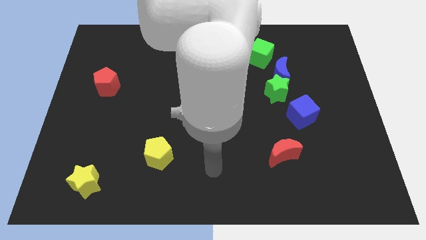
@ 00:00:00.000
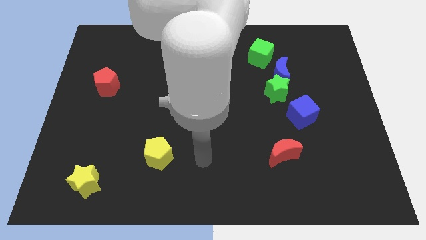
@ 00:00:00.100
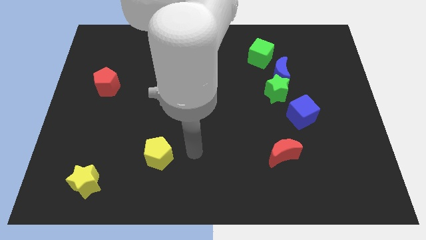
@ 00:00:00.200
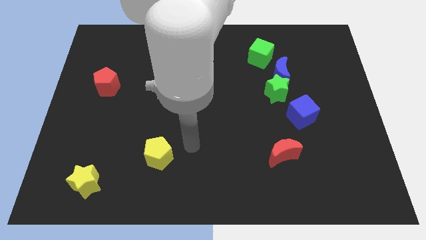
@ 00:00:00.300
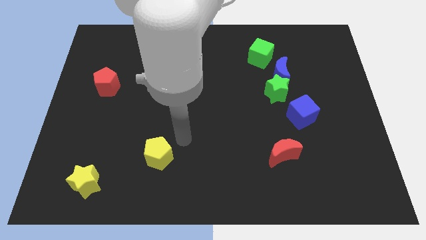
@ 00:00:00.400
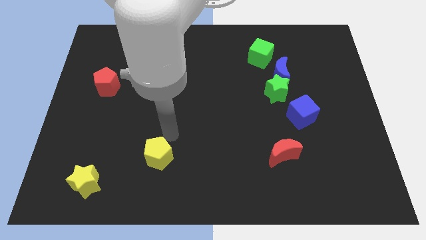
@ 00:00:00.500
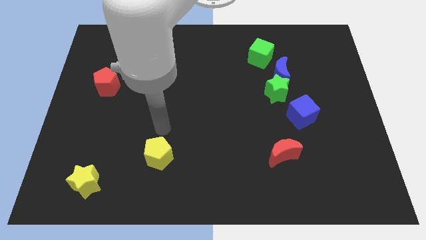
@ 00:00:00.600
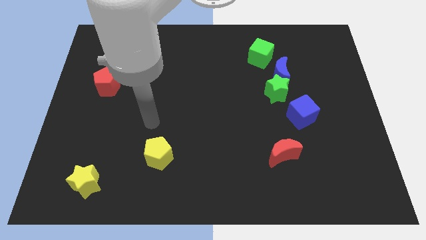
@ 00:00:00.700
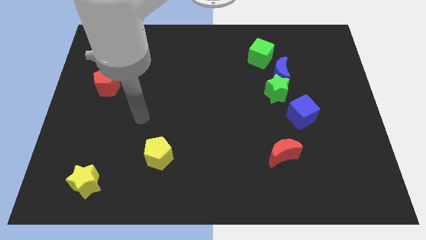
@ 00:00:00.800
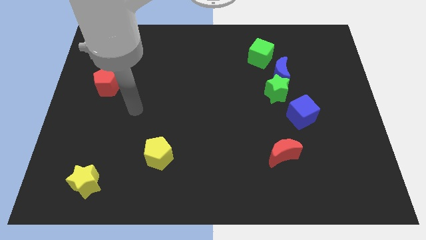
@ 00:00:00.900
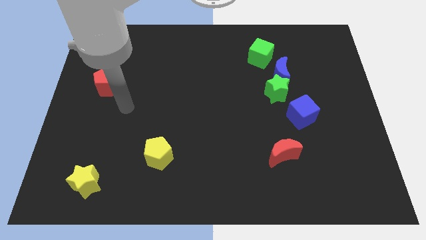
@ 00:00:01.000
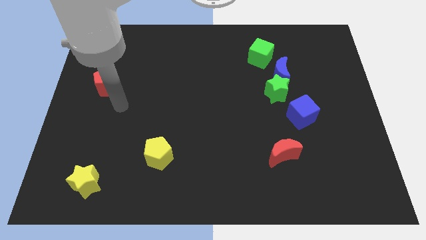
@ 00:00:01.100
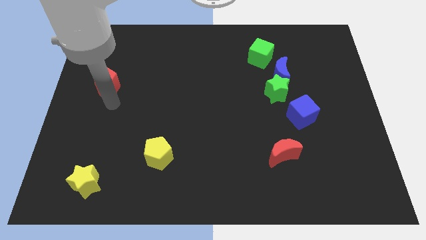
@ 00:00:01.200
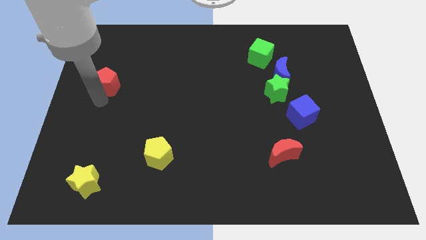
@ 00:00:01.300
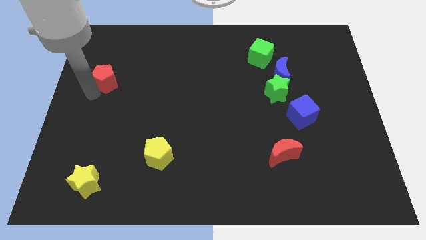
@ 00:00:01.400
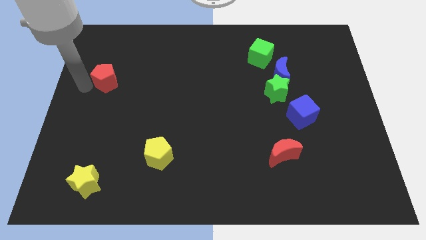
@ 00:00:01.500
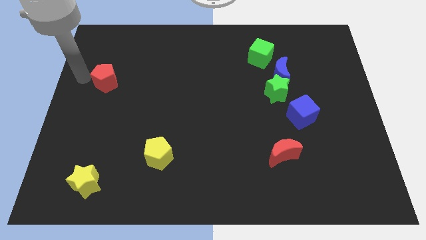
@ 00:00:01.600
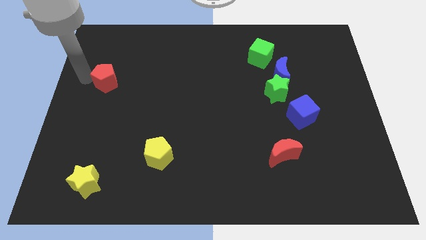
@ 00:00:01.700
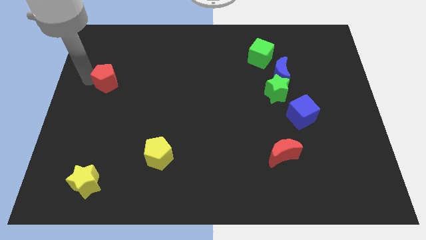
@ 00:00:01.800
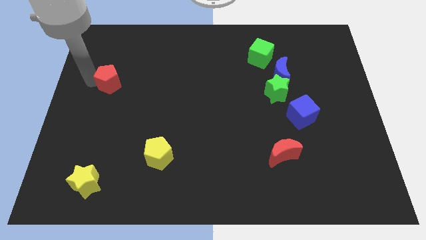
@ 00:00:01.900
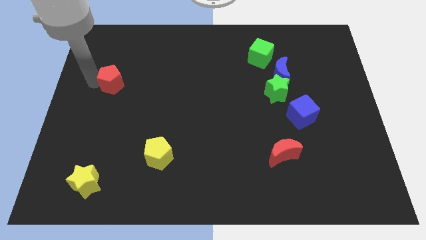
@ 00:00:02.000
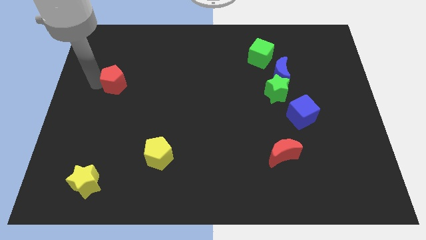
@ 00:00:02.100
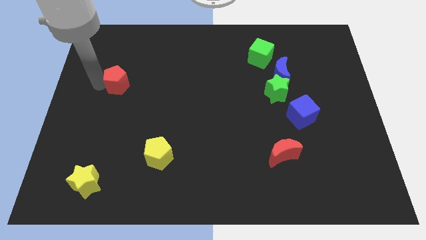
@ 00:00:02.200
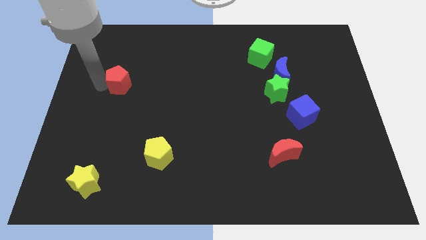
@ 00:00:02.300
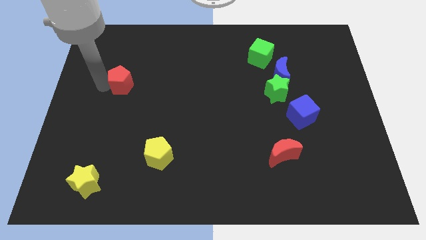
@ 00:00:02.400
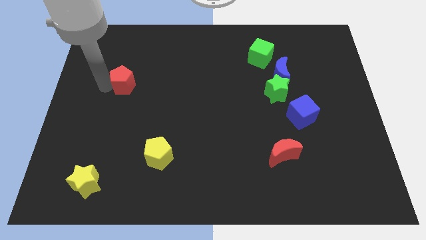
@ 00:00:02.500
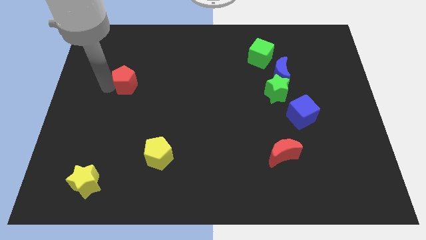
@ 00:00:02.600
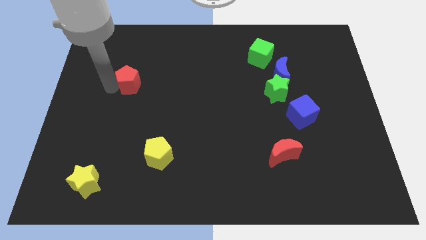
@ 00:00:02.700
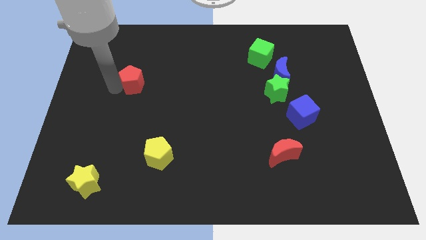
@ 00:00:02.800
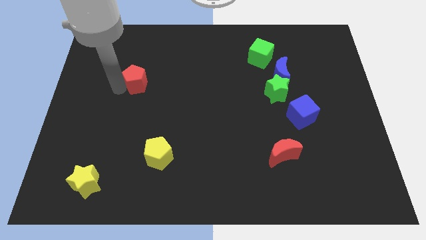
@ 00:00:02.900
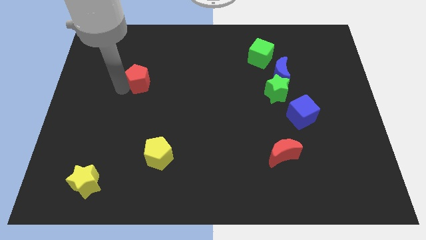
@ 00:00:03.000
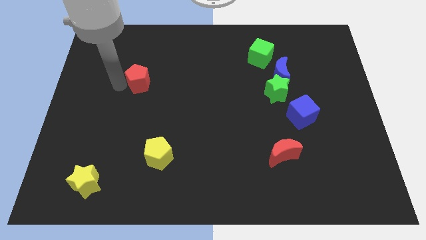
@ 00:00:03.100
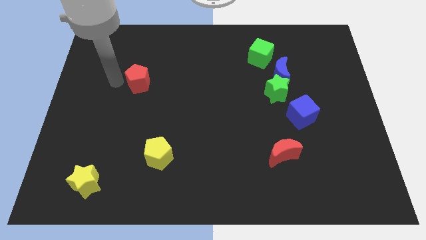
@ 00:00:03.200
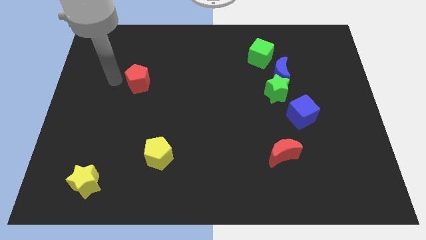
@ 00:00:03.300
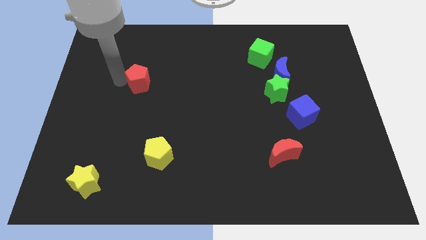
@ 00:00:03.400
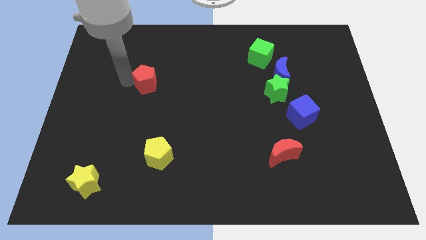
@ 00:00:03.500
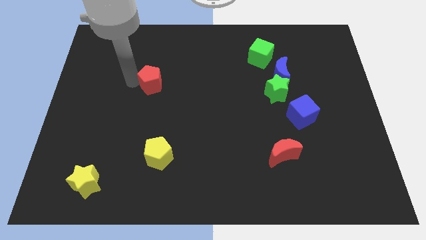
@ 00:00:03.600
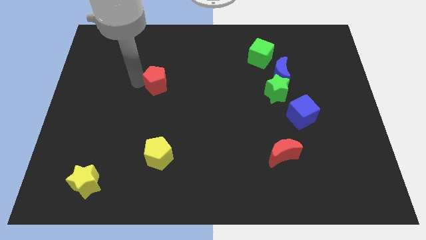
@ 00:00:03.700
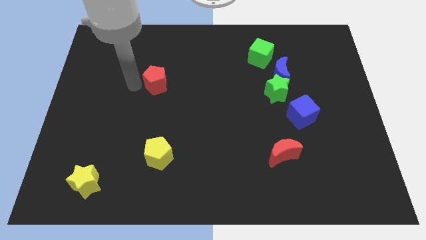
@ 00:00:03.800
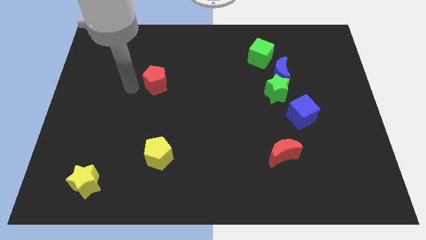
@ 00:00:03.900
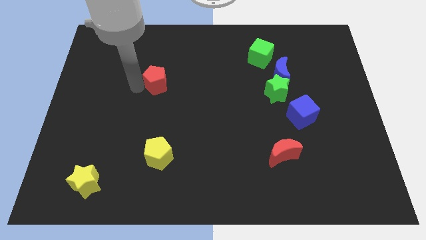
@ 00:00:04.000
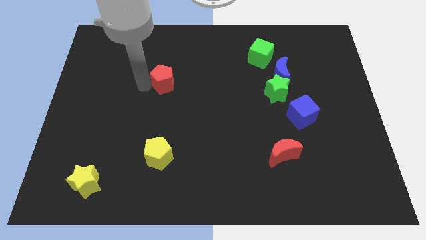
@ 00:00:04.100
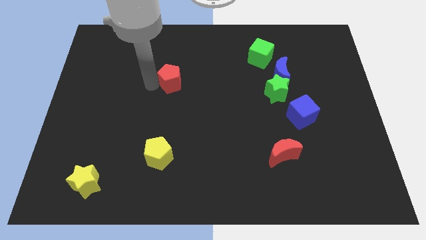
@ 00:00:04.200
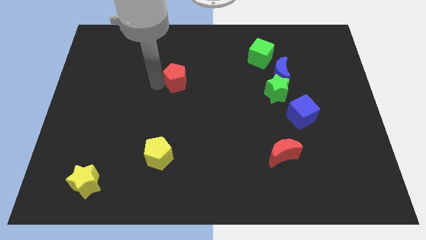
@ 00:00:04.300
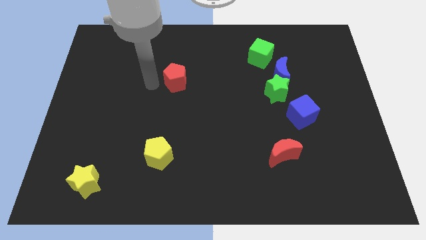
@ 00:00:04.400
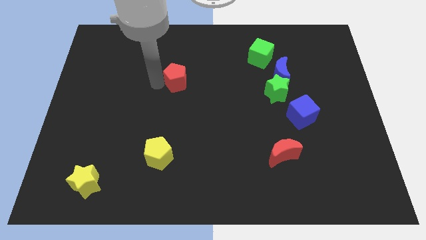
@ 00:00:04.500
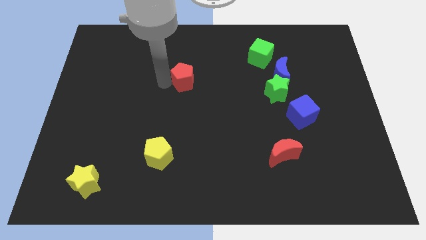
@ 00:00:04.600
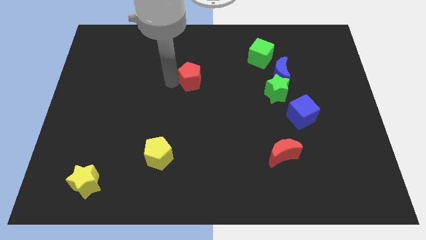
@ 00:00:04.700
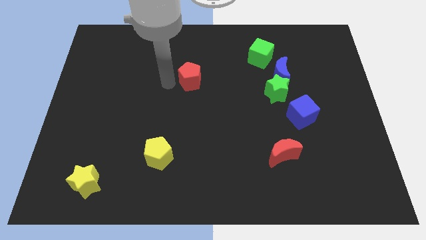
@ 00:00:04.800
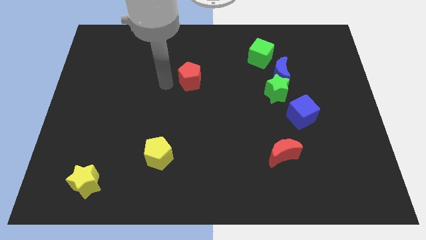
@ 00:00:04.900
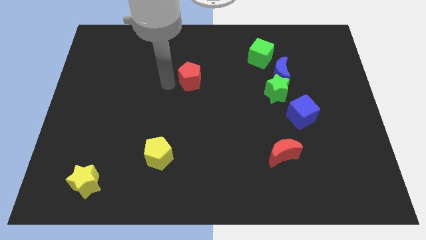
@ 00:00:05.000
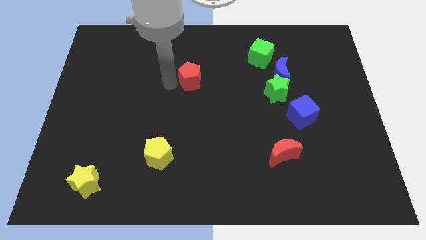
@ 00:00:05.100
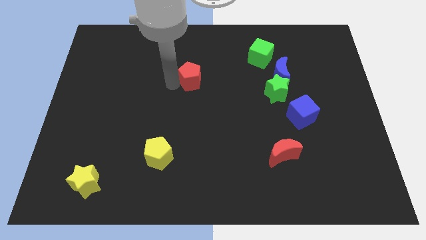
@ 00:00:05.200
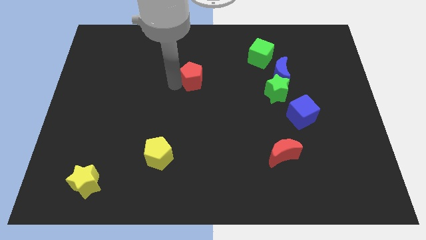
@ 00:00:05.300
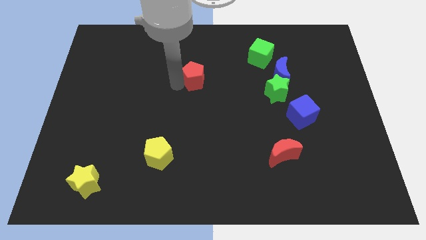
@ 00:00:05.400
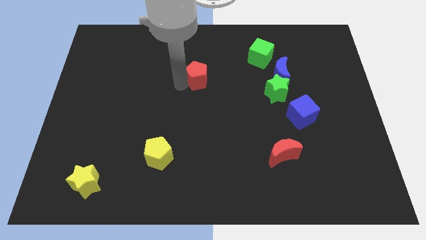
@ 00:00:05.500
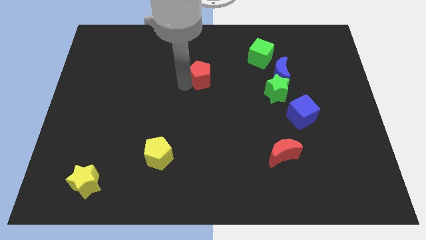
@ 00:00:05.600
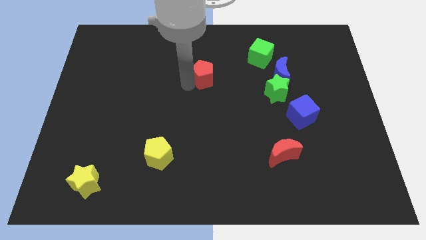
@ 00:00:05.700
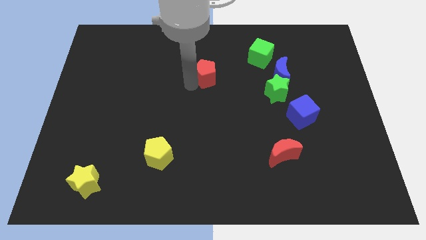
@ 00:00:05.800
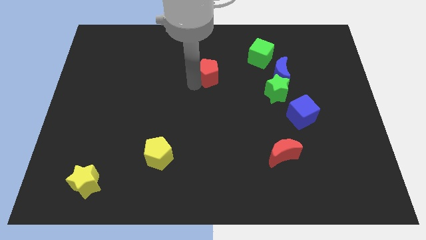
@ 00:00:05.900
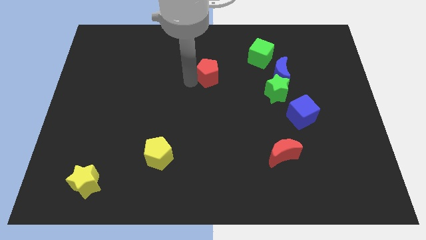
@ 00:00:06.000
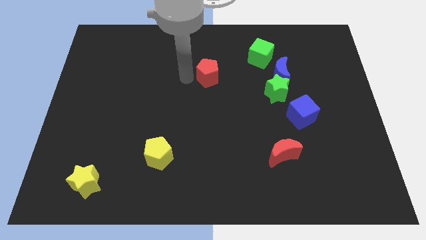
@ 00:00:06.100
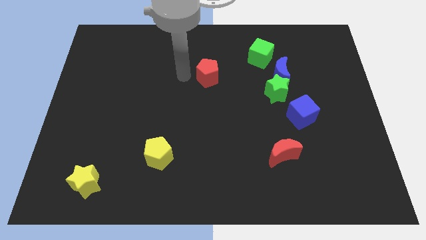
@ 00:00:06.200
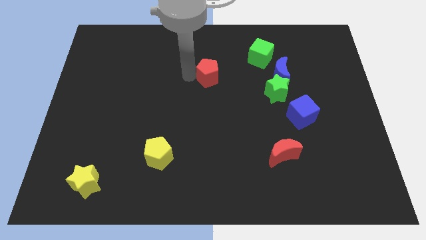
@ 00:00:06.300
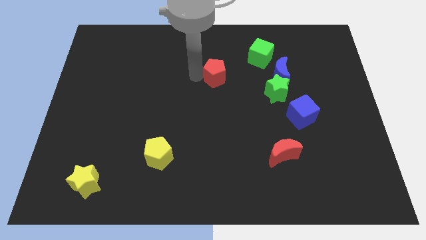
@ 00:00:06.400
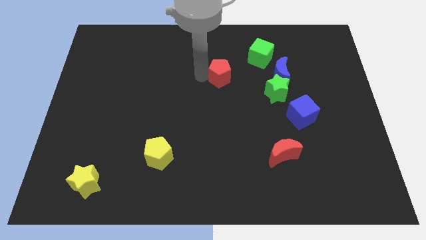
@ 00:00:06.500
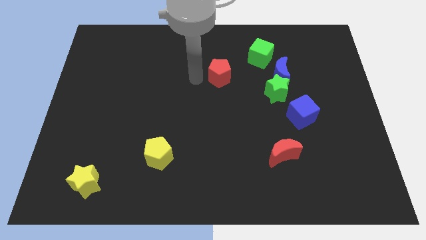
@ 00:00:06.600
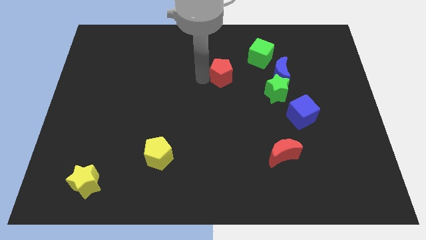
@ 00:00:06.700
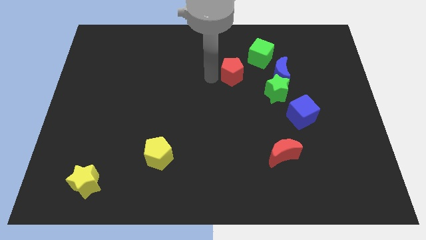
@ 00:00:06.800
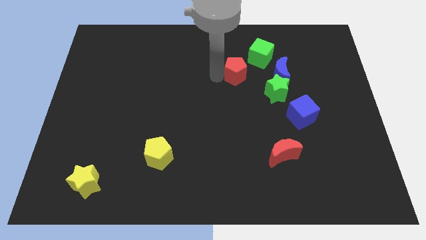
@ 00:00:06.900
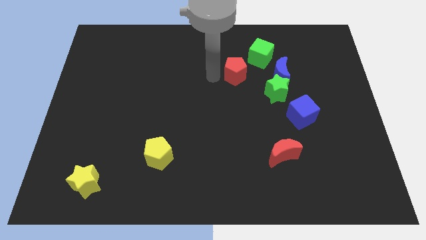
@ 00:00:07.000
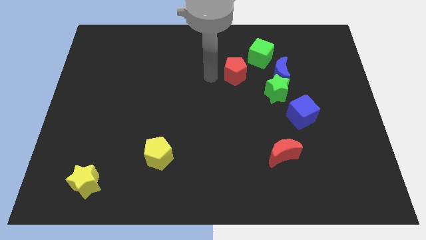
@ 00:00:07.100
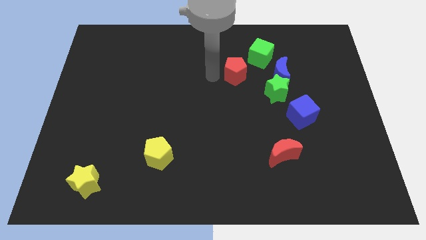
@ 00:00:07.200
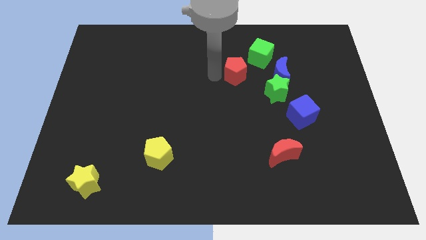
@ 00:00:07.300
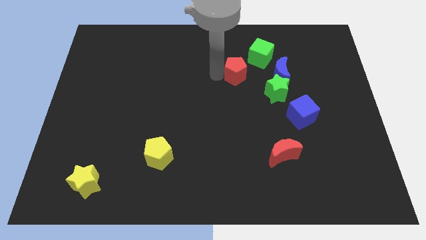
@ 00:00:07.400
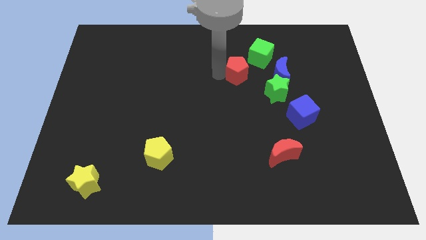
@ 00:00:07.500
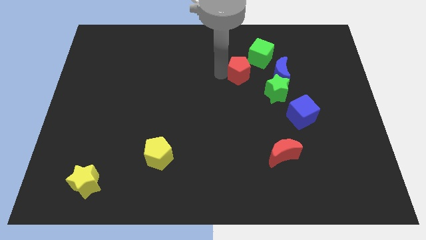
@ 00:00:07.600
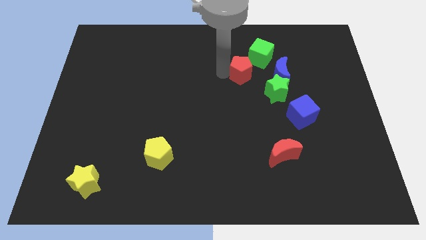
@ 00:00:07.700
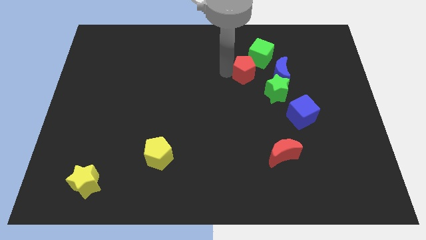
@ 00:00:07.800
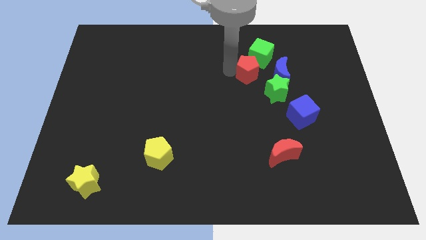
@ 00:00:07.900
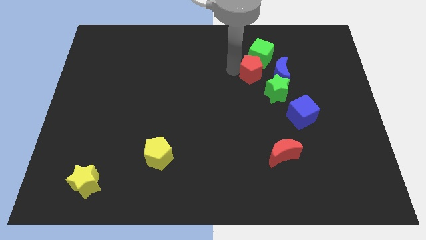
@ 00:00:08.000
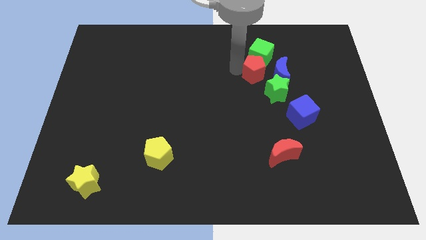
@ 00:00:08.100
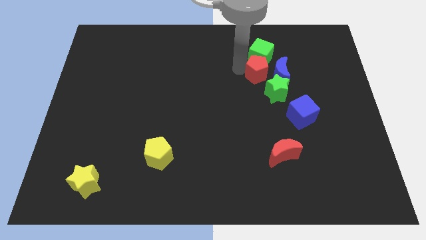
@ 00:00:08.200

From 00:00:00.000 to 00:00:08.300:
put the red pentagon close to the blue moon
